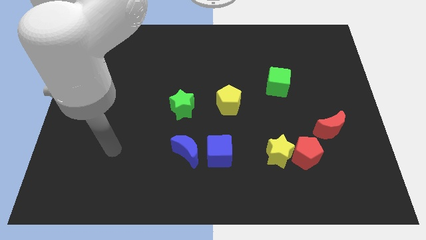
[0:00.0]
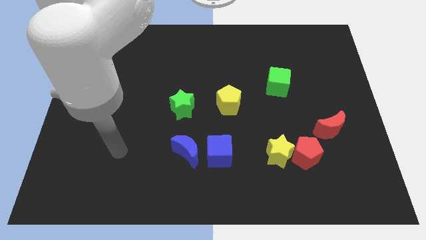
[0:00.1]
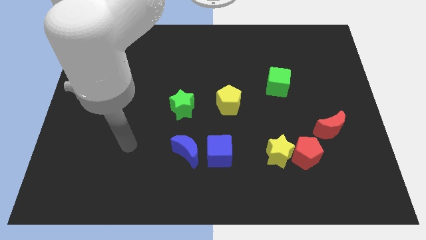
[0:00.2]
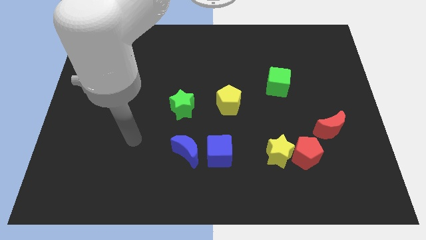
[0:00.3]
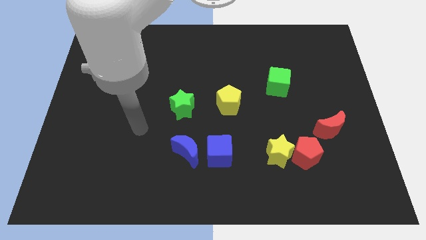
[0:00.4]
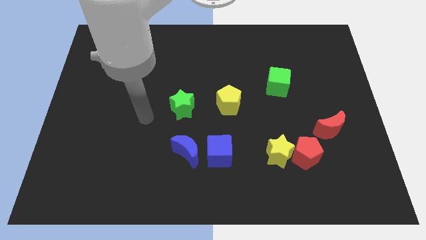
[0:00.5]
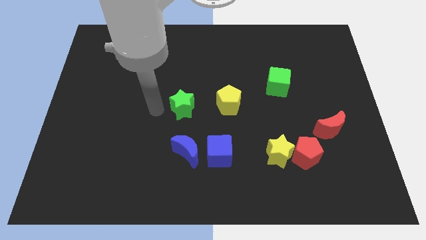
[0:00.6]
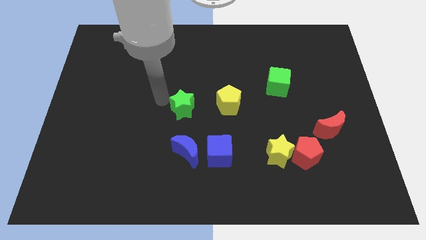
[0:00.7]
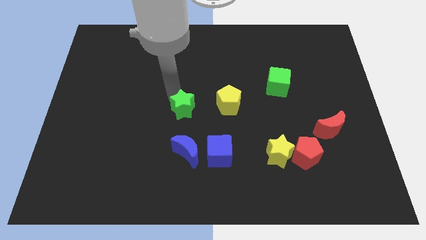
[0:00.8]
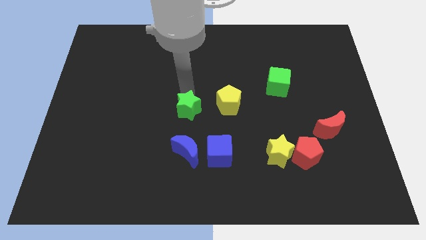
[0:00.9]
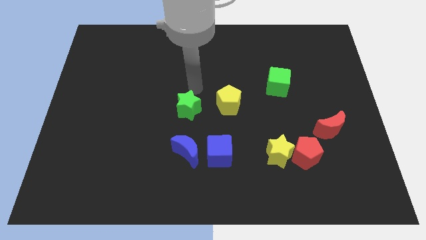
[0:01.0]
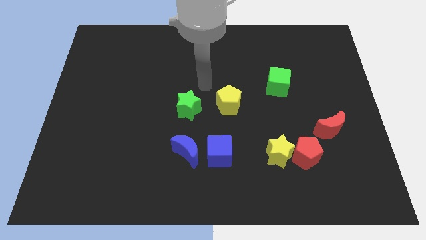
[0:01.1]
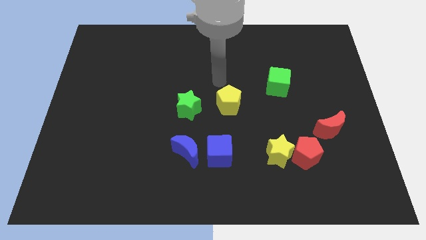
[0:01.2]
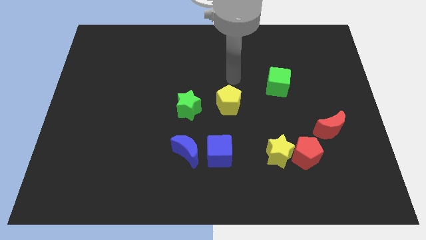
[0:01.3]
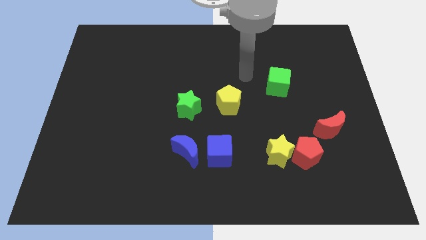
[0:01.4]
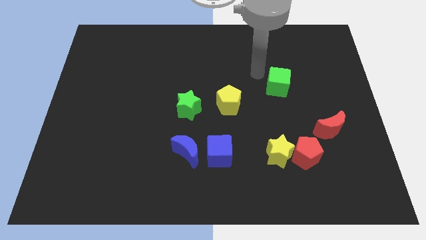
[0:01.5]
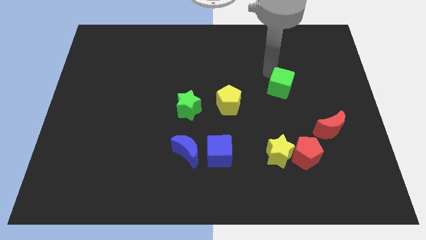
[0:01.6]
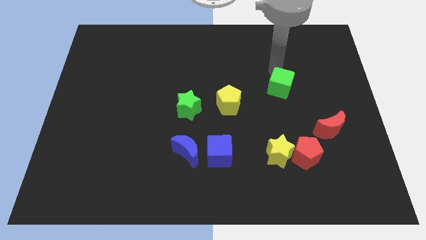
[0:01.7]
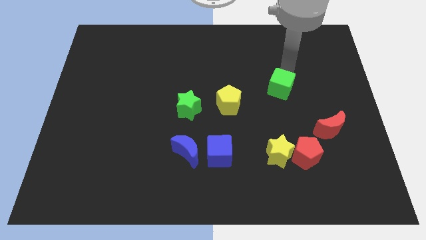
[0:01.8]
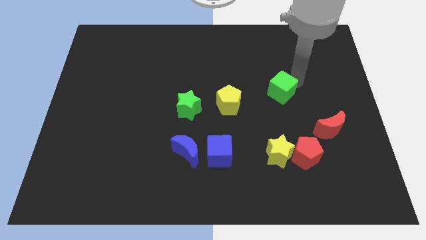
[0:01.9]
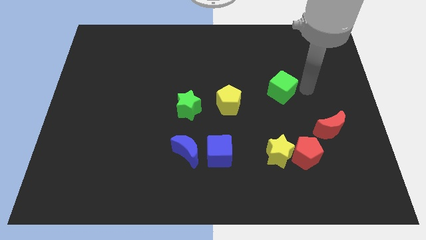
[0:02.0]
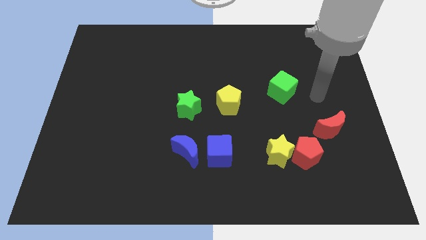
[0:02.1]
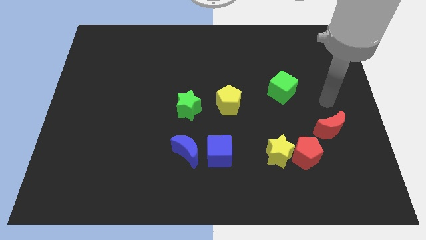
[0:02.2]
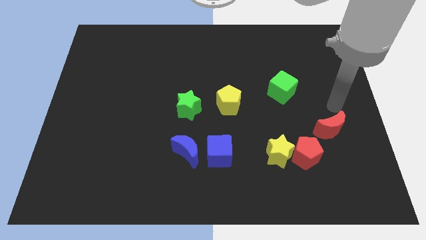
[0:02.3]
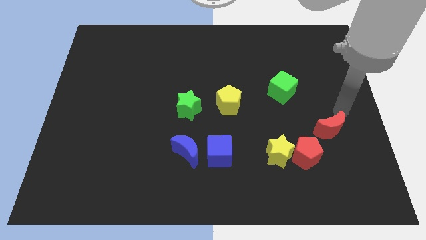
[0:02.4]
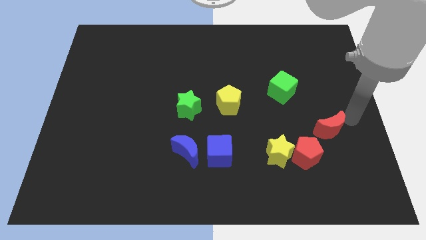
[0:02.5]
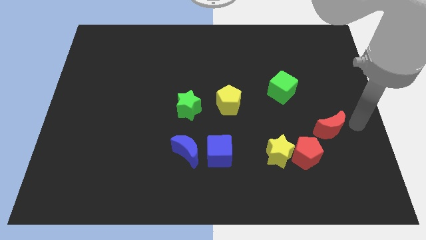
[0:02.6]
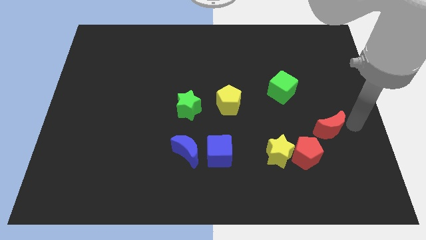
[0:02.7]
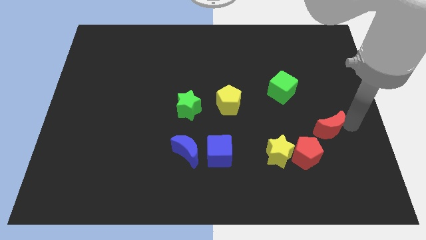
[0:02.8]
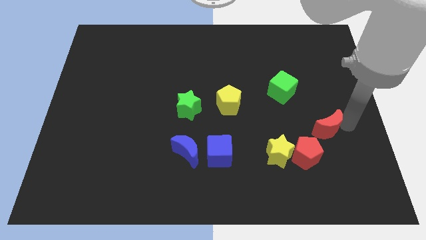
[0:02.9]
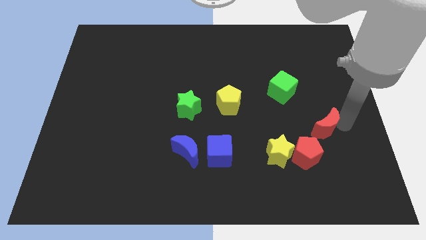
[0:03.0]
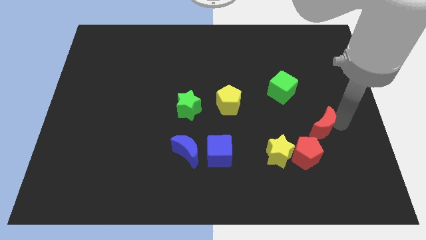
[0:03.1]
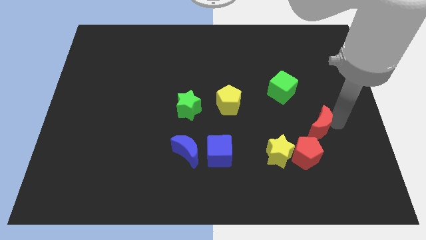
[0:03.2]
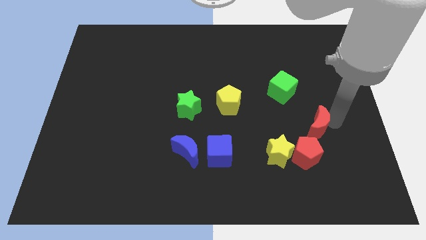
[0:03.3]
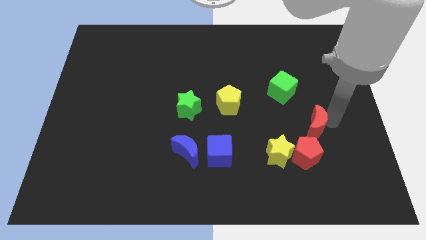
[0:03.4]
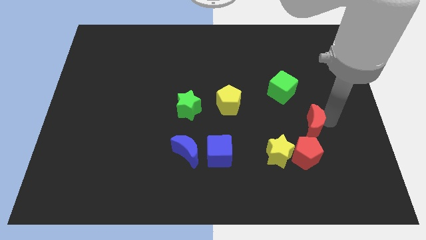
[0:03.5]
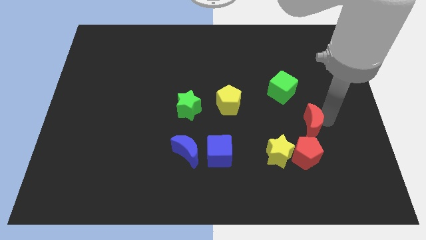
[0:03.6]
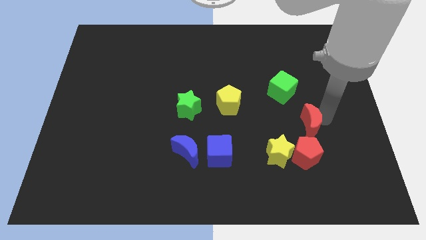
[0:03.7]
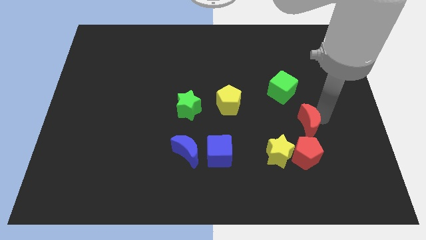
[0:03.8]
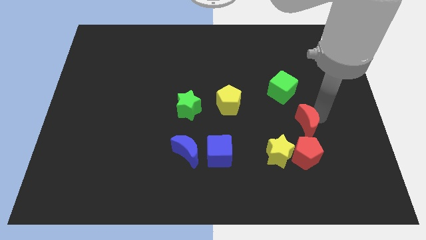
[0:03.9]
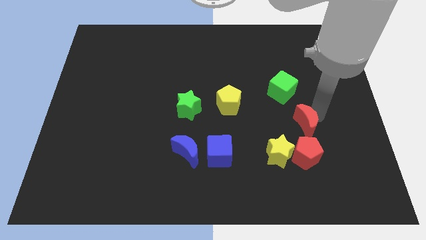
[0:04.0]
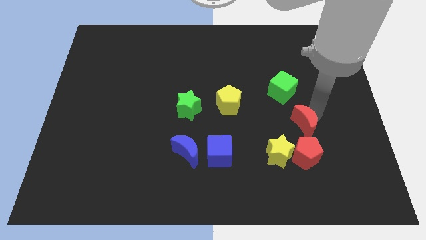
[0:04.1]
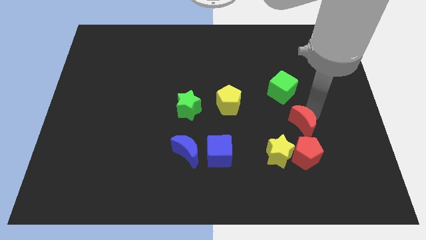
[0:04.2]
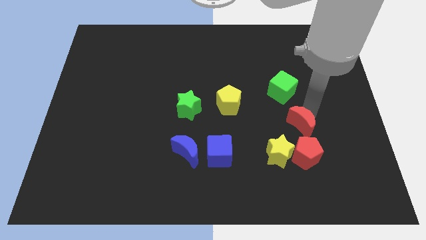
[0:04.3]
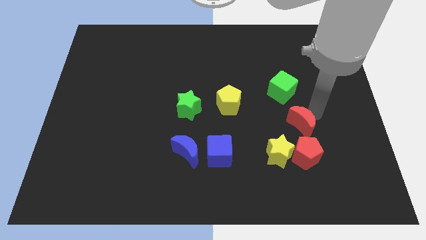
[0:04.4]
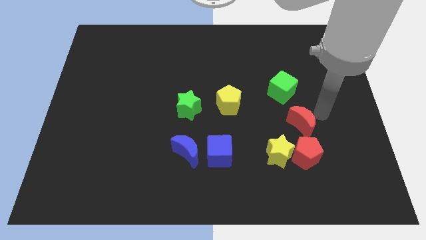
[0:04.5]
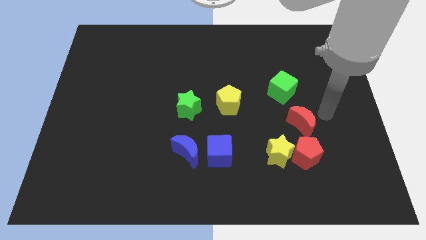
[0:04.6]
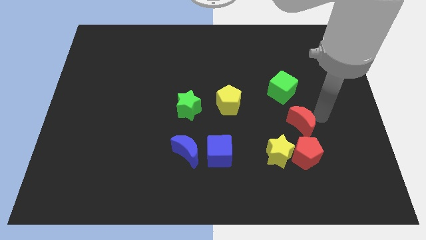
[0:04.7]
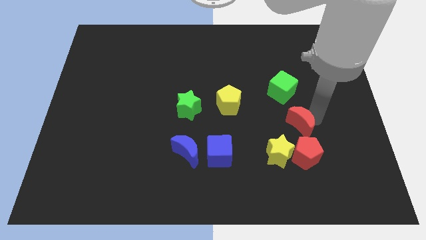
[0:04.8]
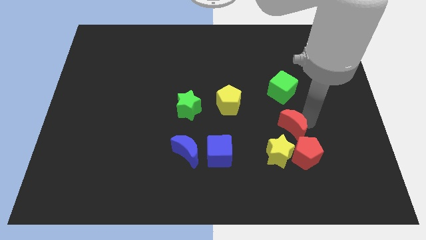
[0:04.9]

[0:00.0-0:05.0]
slightly slide the red moon to the left

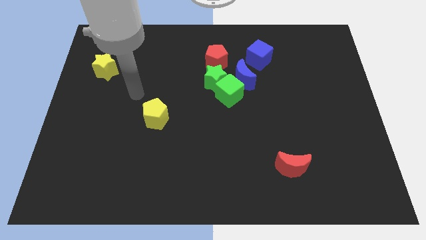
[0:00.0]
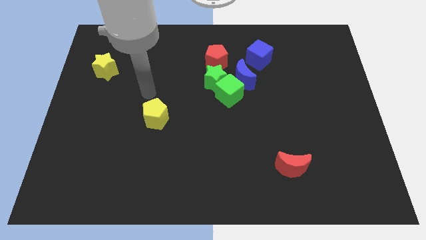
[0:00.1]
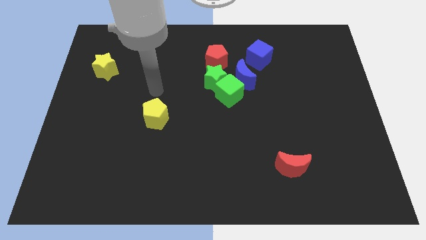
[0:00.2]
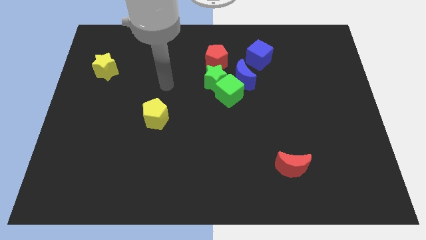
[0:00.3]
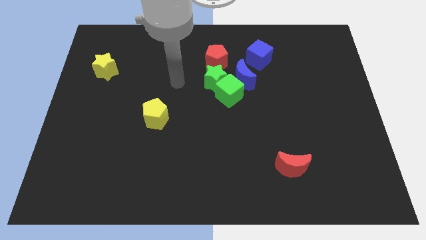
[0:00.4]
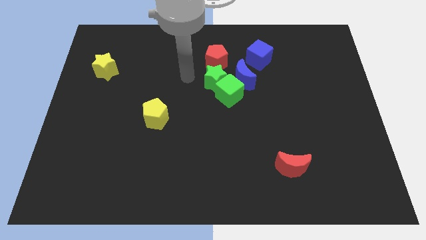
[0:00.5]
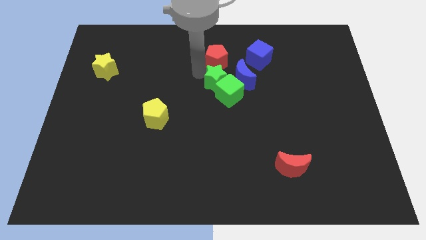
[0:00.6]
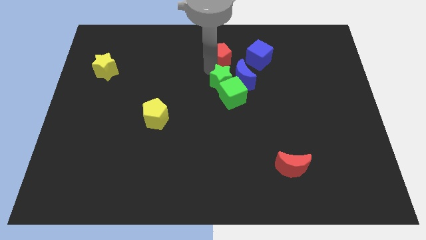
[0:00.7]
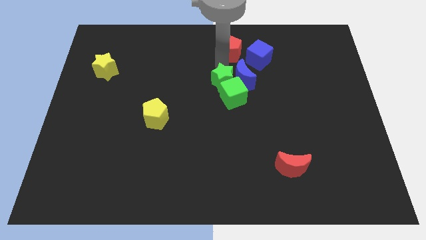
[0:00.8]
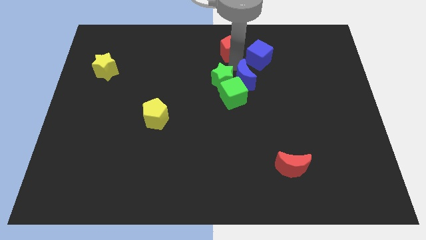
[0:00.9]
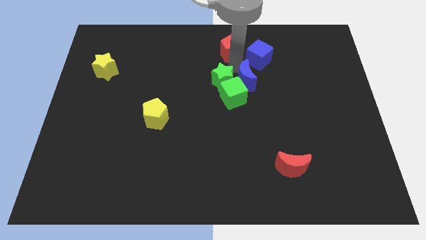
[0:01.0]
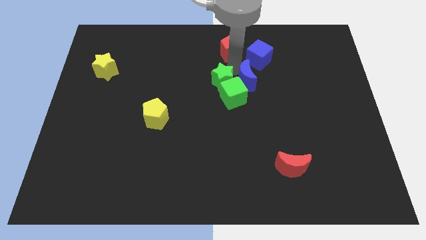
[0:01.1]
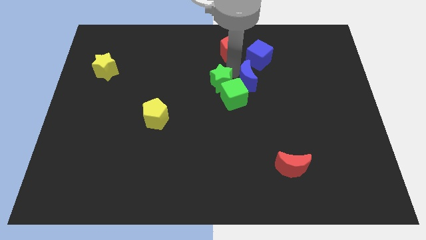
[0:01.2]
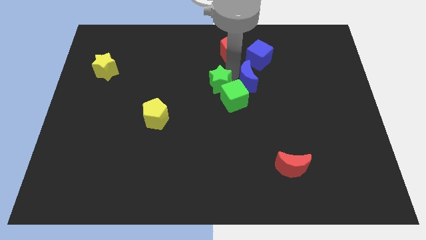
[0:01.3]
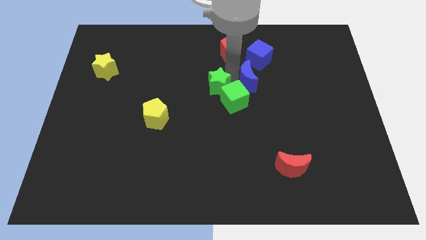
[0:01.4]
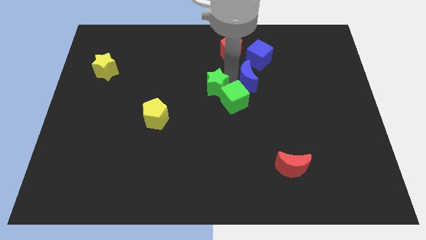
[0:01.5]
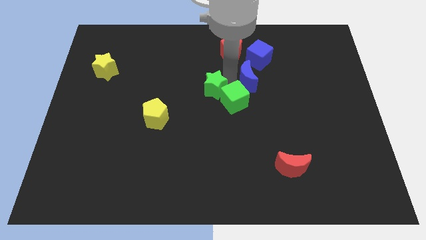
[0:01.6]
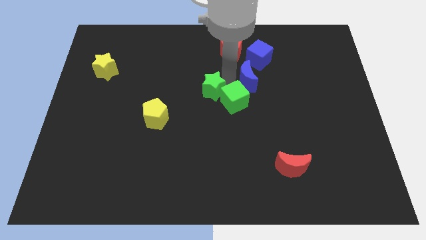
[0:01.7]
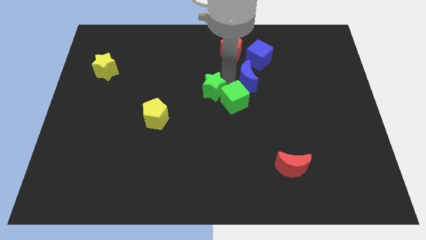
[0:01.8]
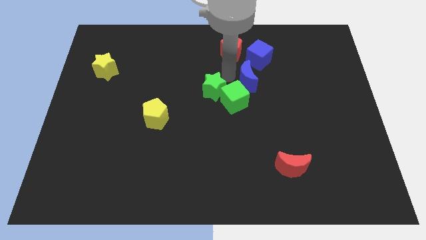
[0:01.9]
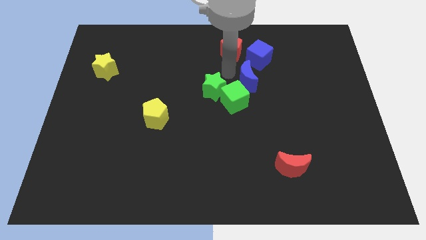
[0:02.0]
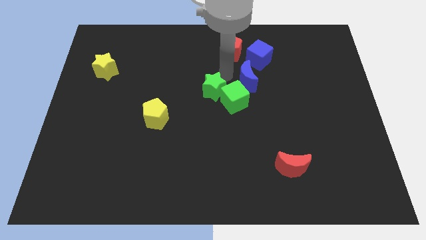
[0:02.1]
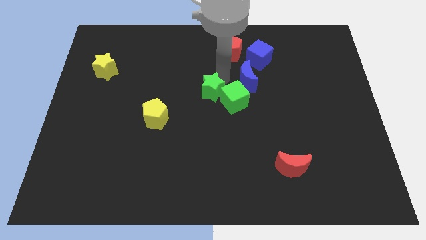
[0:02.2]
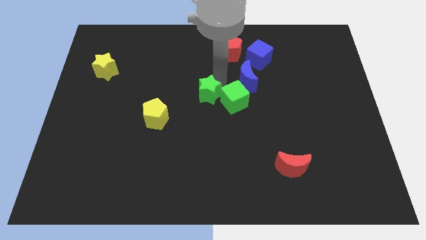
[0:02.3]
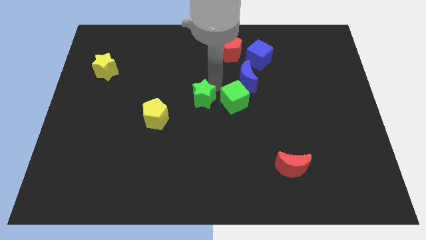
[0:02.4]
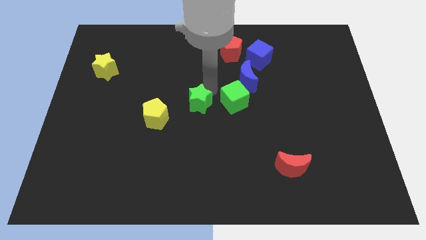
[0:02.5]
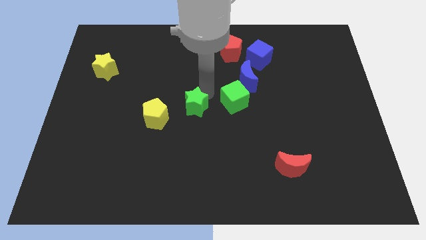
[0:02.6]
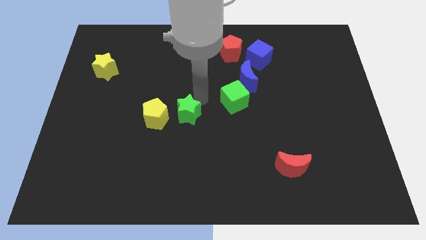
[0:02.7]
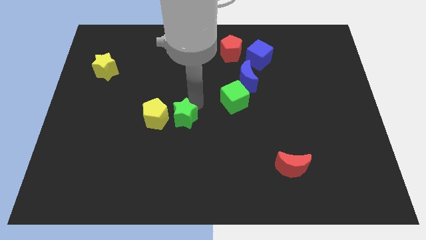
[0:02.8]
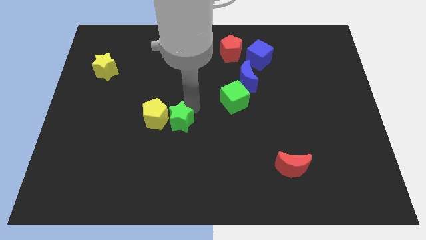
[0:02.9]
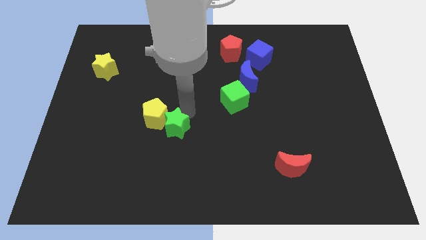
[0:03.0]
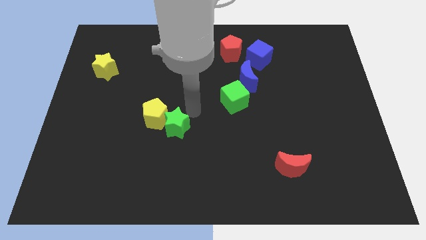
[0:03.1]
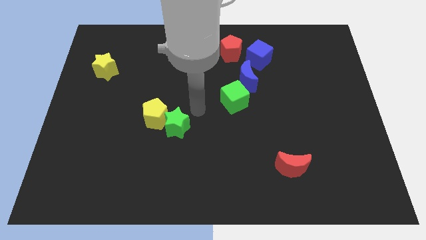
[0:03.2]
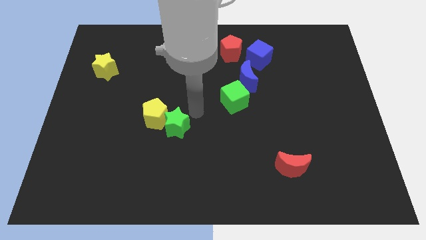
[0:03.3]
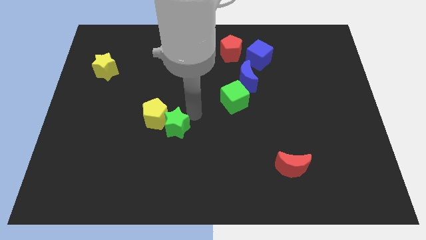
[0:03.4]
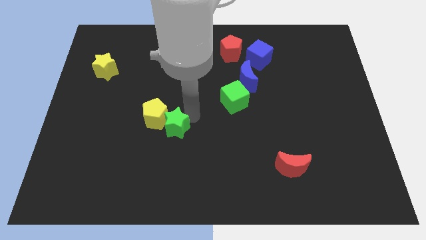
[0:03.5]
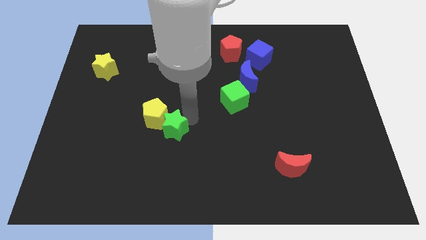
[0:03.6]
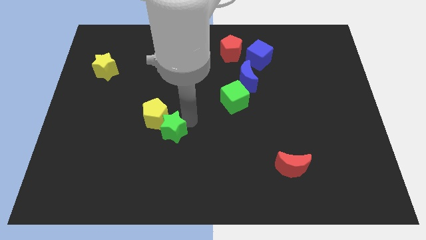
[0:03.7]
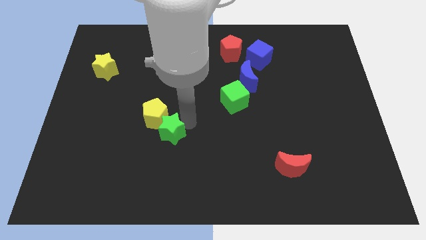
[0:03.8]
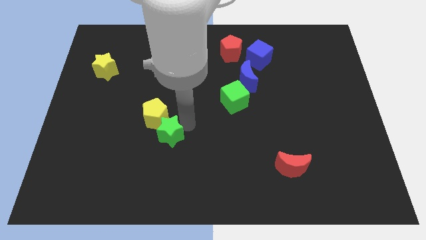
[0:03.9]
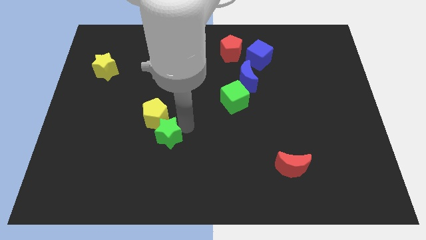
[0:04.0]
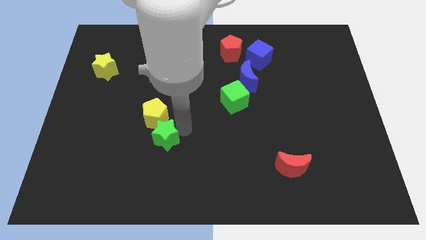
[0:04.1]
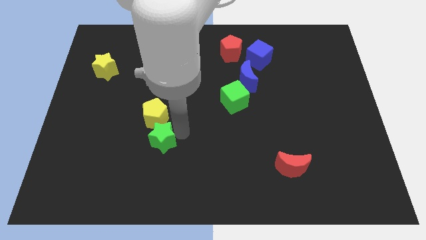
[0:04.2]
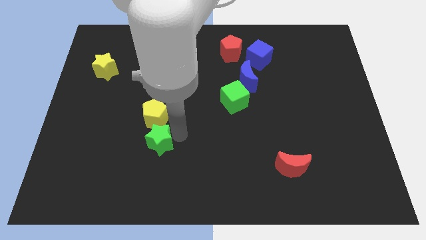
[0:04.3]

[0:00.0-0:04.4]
push the green star diagonally down and to the left
